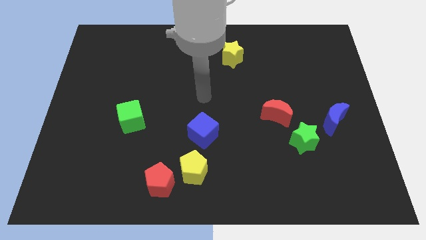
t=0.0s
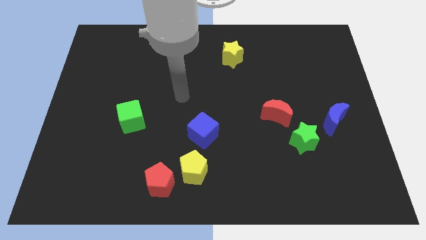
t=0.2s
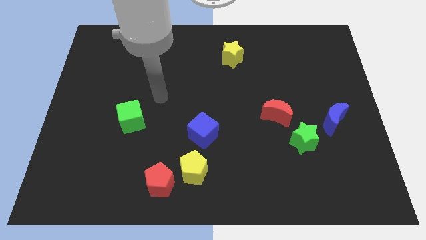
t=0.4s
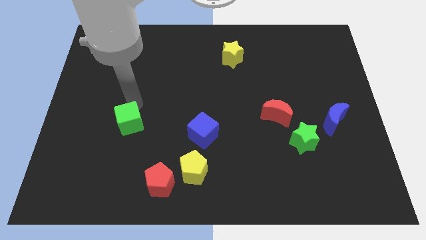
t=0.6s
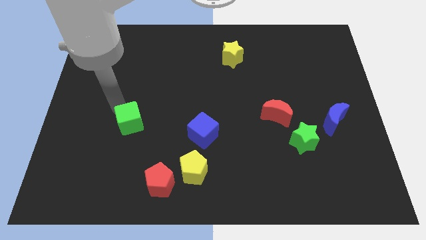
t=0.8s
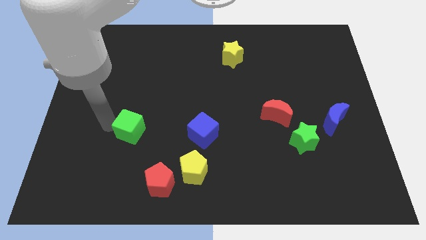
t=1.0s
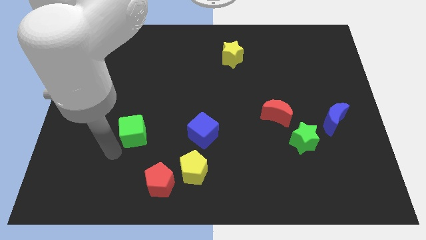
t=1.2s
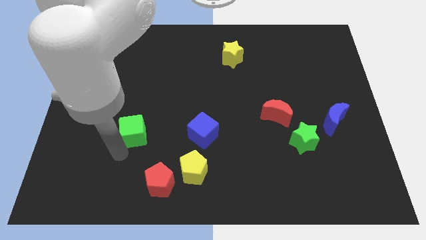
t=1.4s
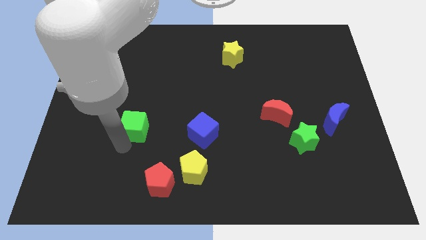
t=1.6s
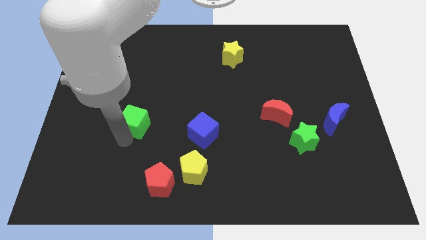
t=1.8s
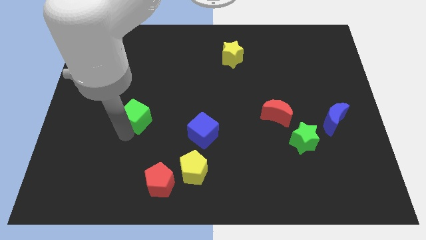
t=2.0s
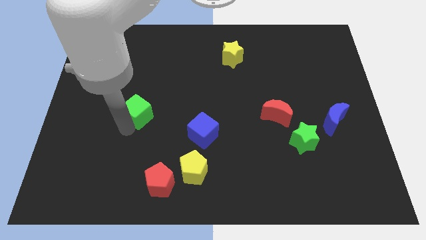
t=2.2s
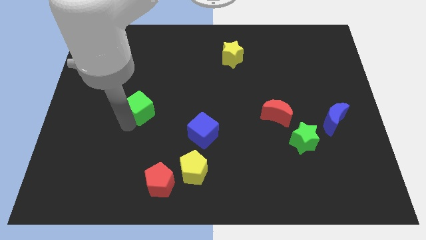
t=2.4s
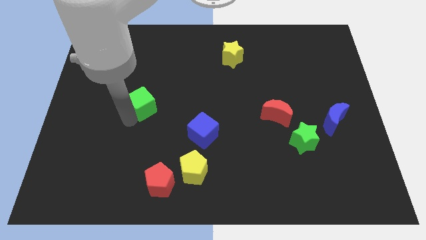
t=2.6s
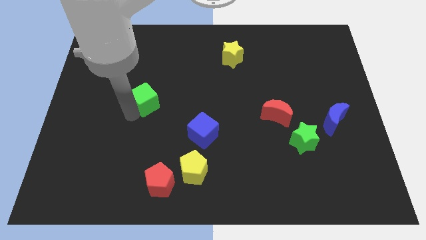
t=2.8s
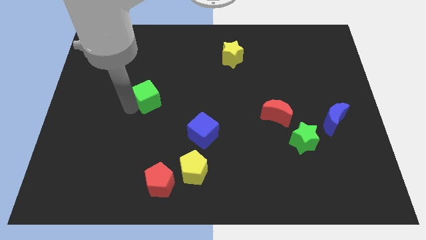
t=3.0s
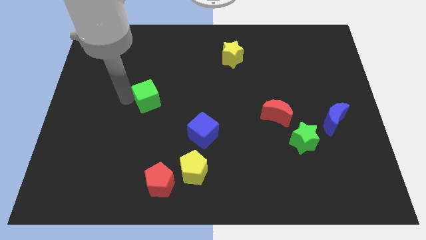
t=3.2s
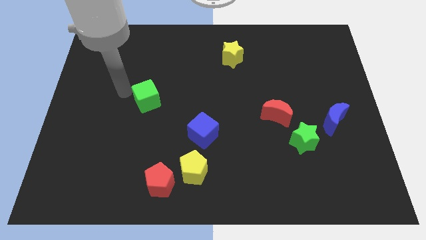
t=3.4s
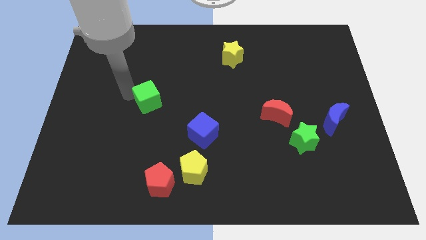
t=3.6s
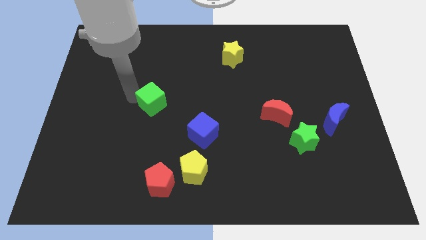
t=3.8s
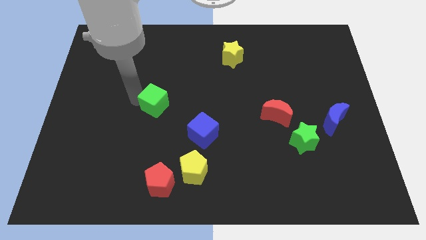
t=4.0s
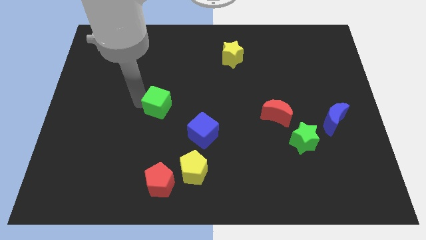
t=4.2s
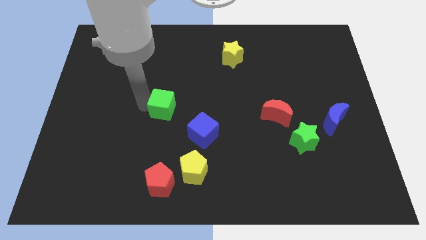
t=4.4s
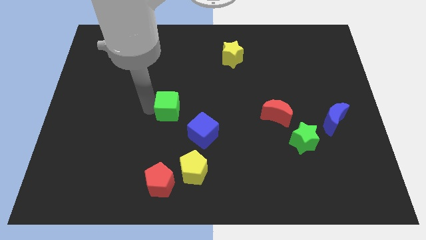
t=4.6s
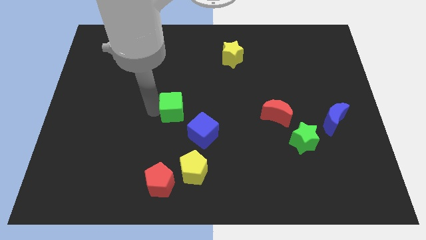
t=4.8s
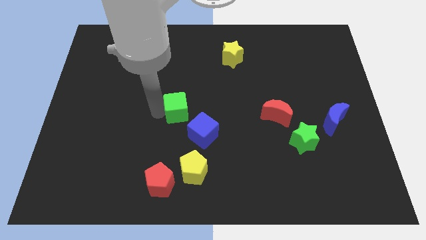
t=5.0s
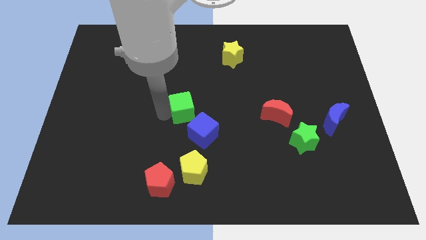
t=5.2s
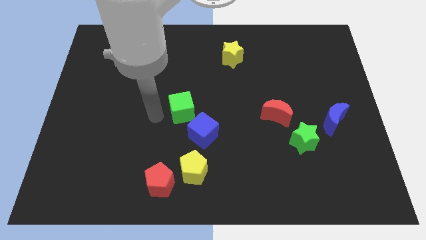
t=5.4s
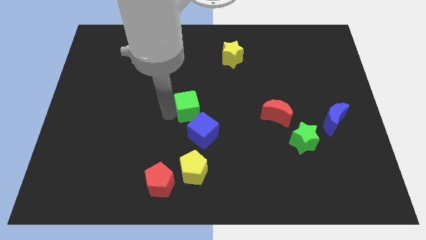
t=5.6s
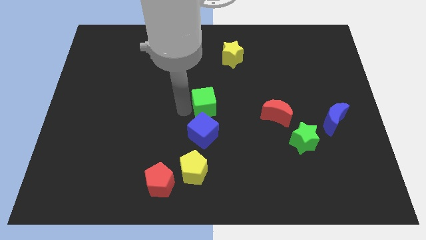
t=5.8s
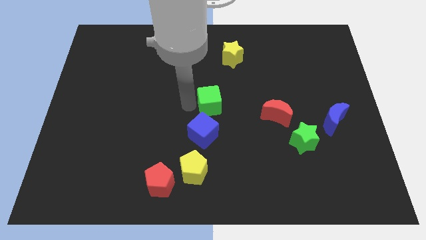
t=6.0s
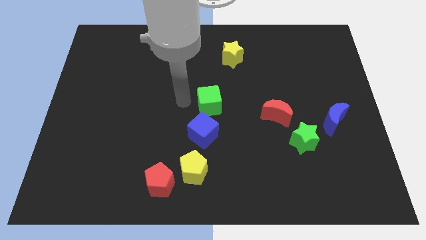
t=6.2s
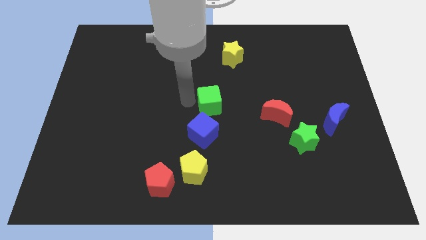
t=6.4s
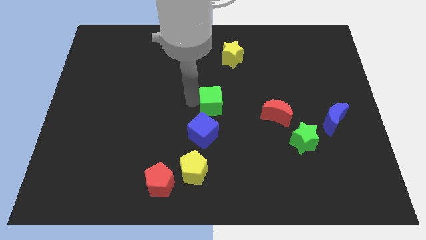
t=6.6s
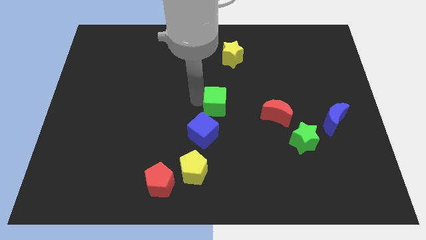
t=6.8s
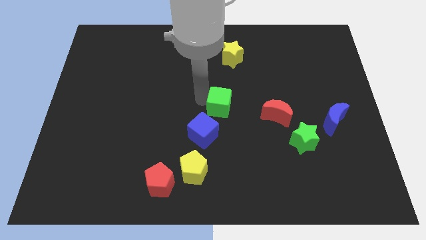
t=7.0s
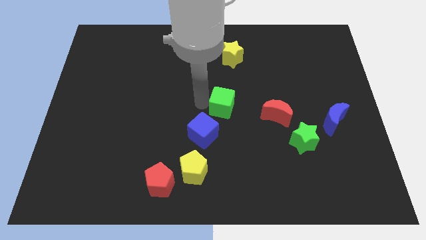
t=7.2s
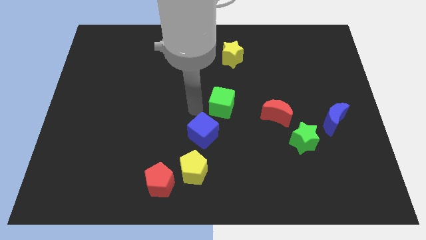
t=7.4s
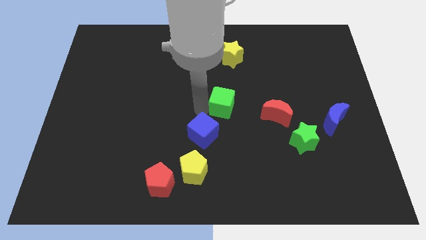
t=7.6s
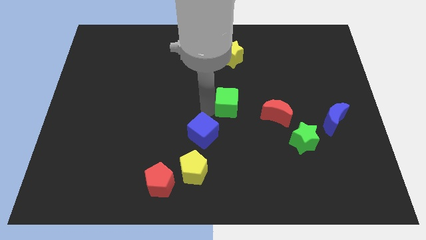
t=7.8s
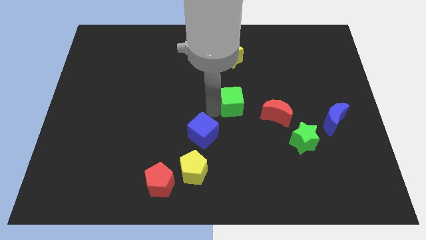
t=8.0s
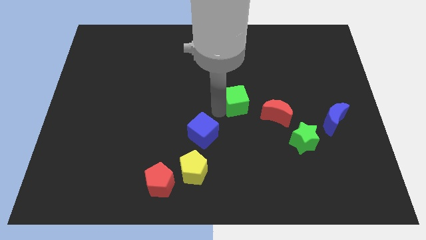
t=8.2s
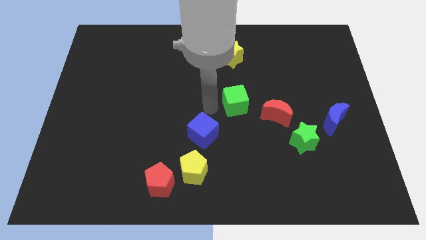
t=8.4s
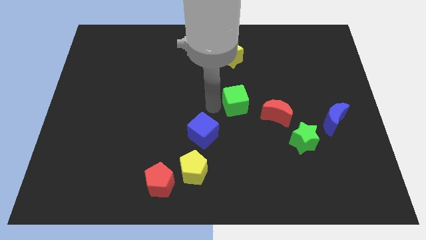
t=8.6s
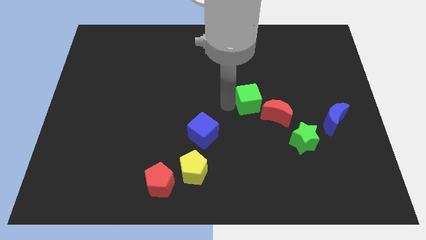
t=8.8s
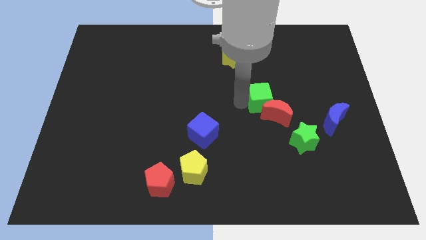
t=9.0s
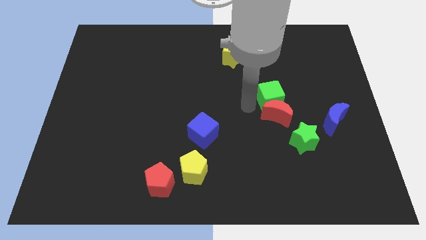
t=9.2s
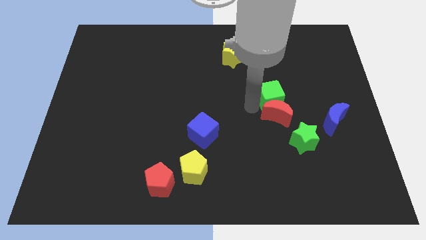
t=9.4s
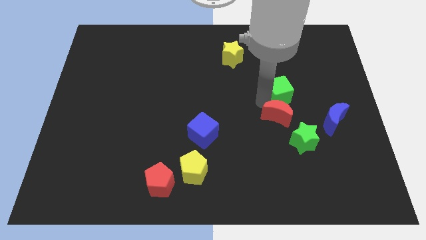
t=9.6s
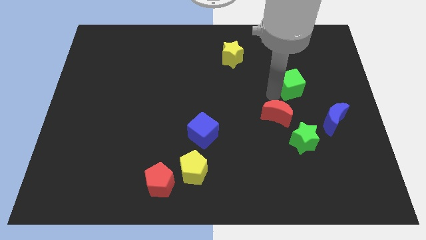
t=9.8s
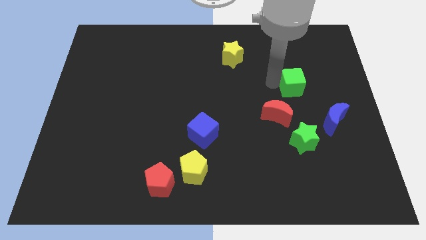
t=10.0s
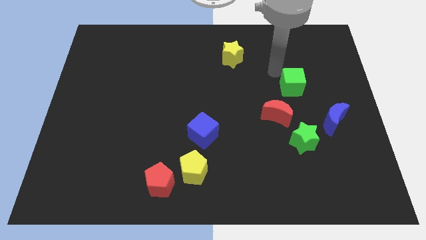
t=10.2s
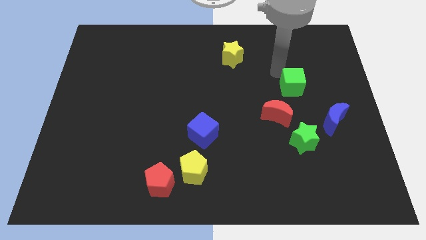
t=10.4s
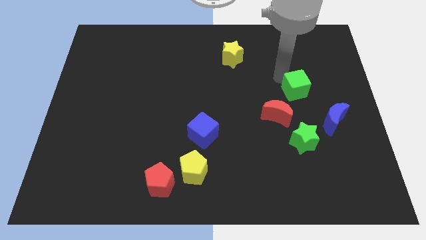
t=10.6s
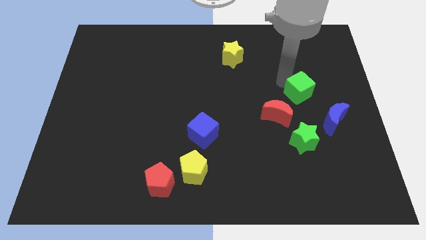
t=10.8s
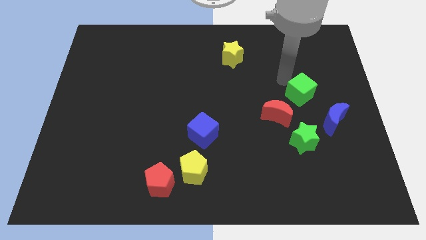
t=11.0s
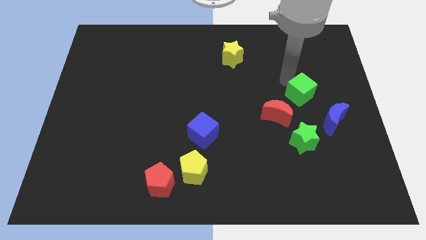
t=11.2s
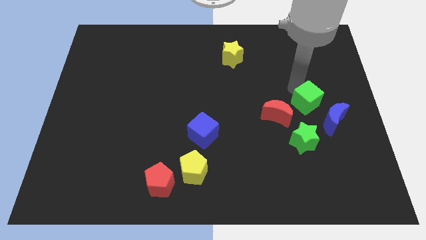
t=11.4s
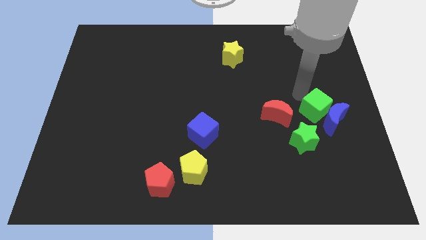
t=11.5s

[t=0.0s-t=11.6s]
push the green cube towards the blue moon

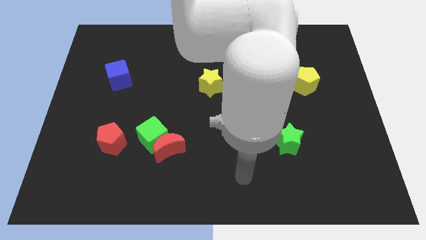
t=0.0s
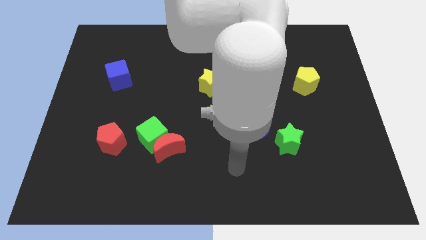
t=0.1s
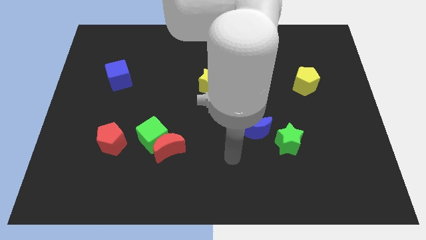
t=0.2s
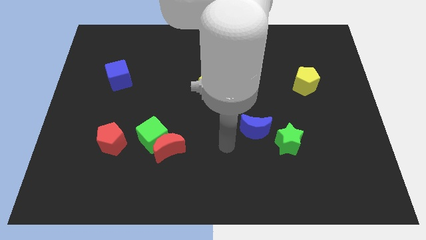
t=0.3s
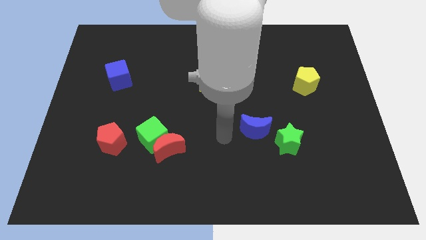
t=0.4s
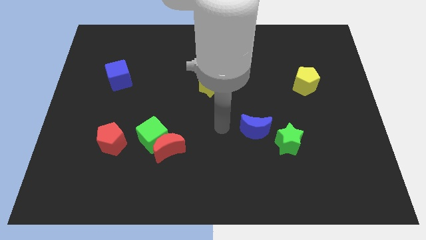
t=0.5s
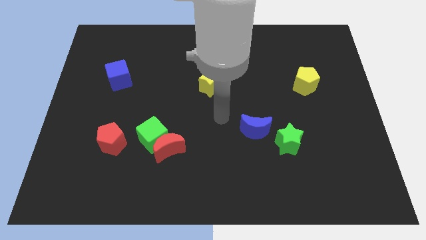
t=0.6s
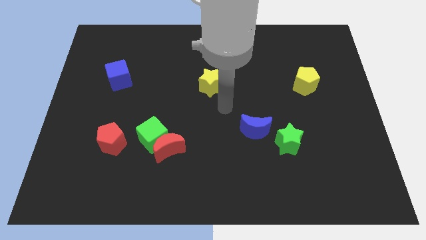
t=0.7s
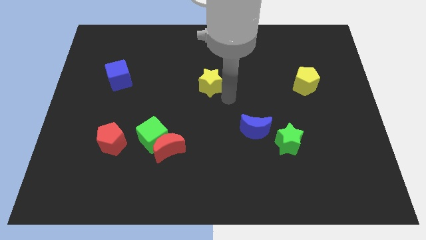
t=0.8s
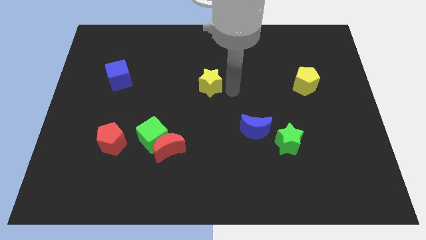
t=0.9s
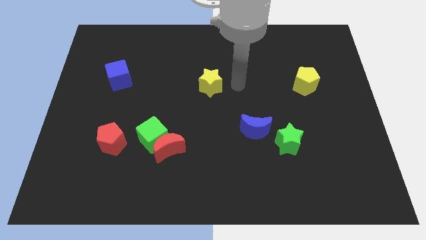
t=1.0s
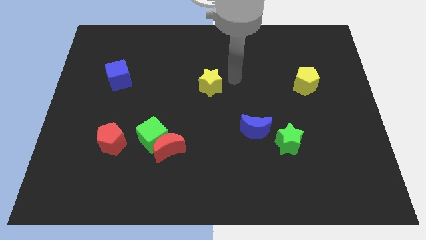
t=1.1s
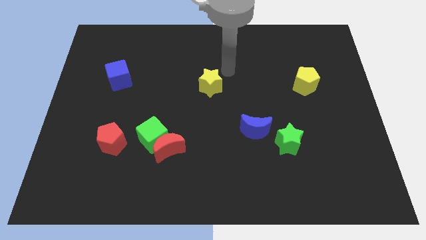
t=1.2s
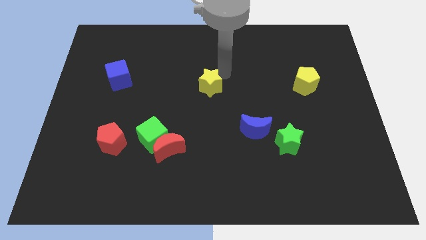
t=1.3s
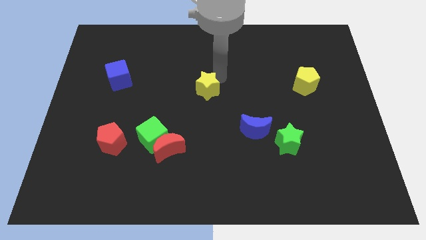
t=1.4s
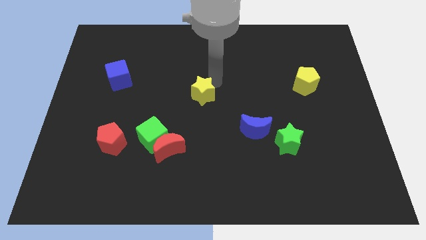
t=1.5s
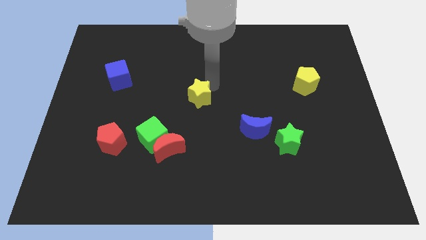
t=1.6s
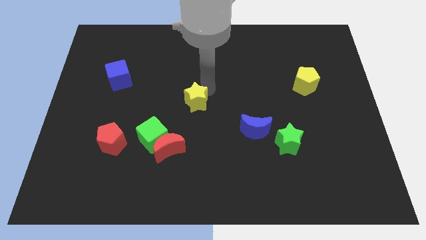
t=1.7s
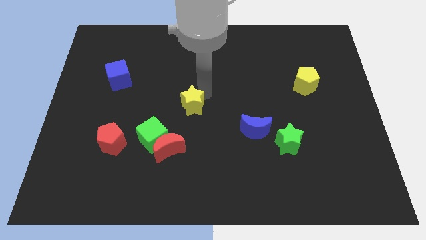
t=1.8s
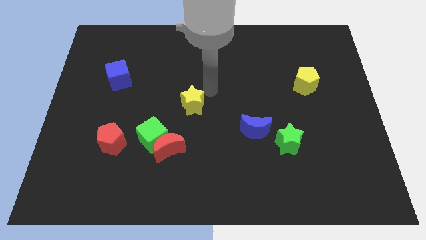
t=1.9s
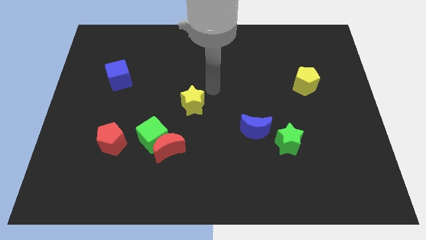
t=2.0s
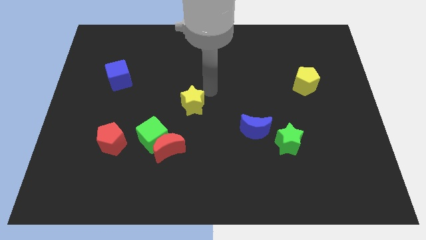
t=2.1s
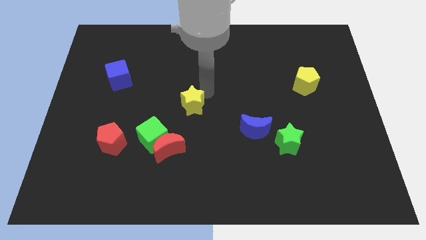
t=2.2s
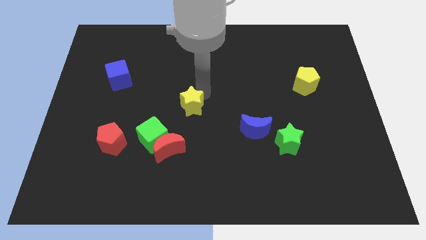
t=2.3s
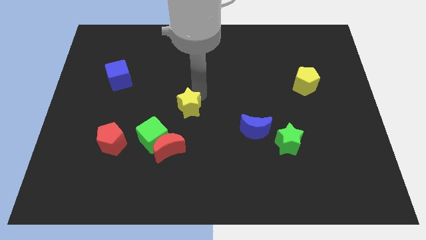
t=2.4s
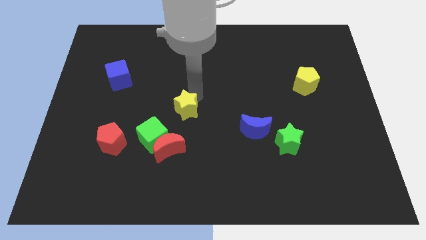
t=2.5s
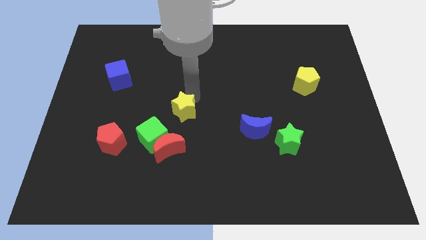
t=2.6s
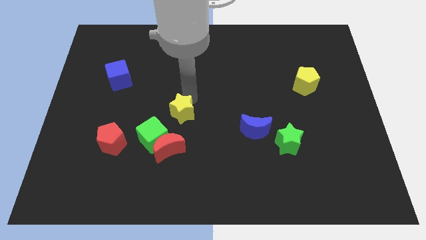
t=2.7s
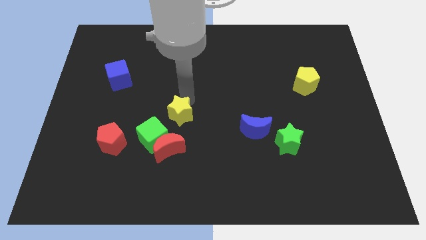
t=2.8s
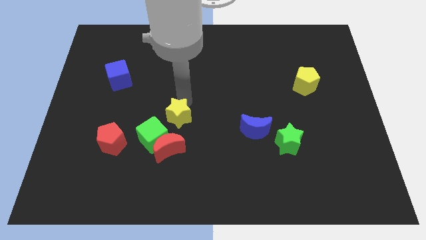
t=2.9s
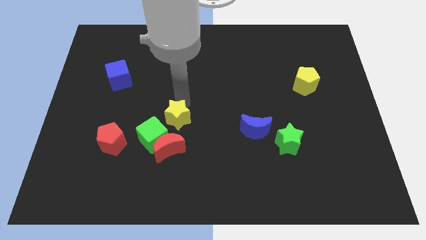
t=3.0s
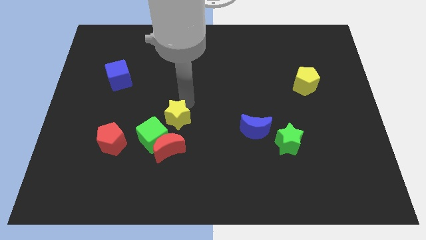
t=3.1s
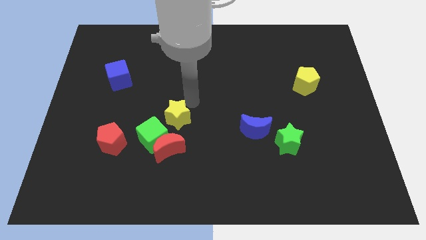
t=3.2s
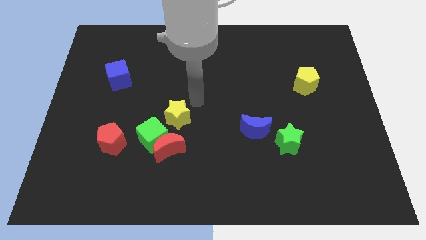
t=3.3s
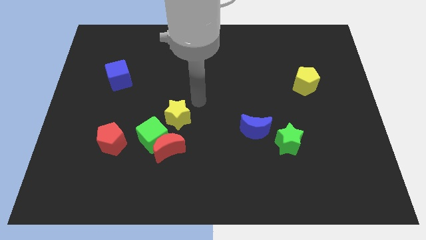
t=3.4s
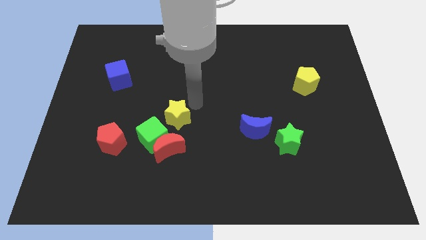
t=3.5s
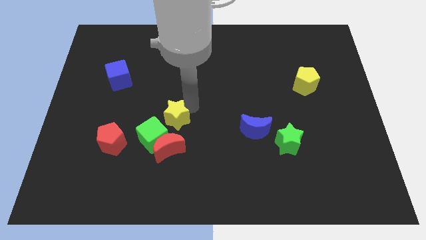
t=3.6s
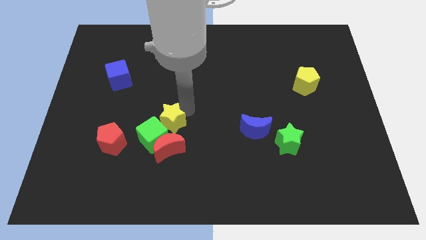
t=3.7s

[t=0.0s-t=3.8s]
move the yellow star next to the green cube
